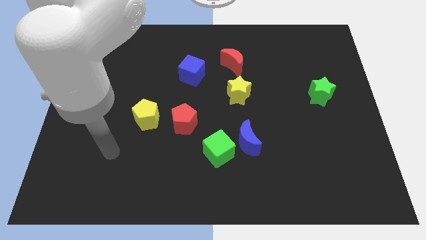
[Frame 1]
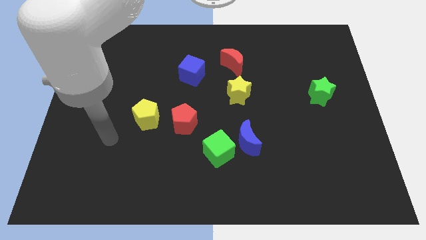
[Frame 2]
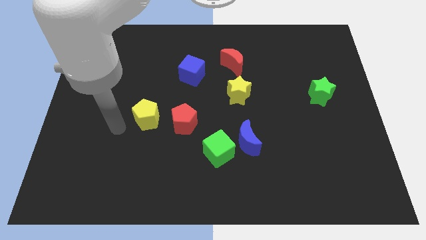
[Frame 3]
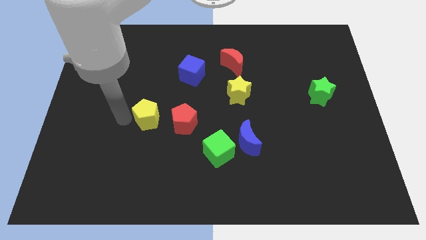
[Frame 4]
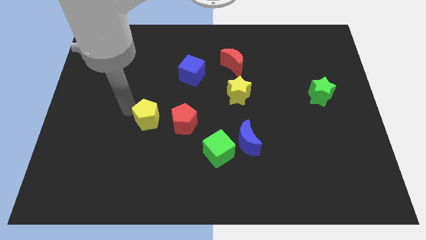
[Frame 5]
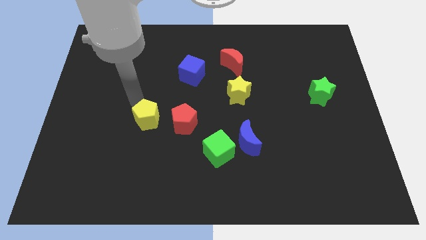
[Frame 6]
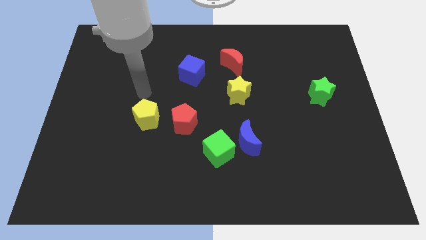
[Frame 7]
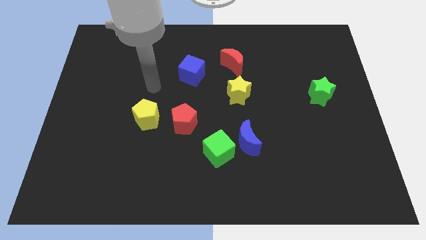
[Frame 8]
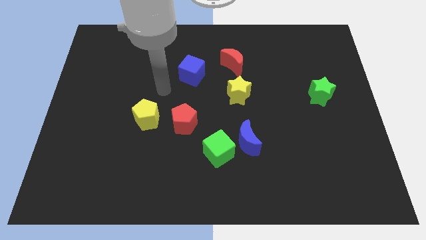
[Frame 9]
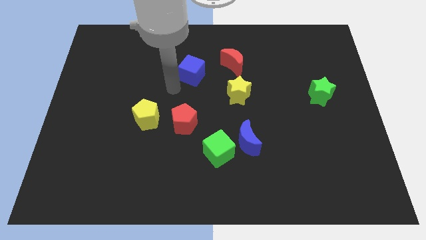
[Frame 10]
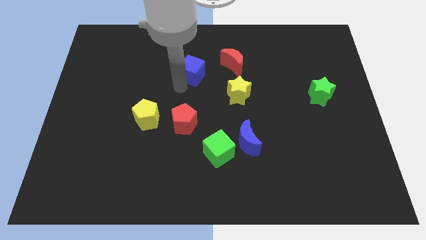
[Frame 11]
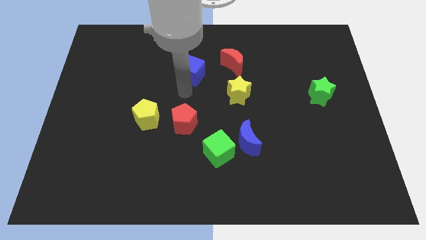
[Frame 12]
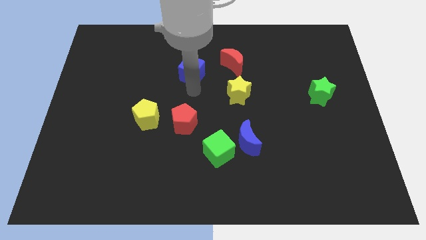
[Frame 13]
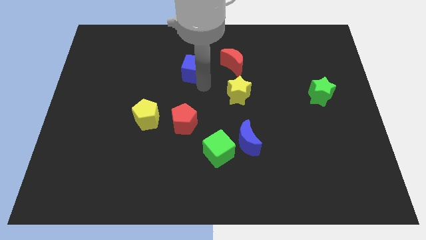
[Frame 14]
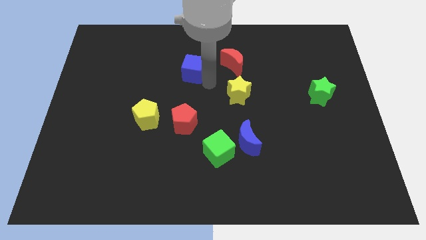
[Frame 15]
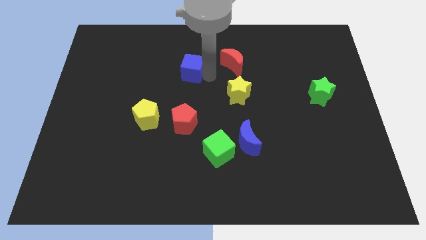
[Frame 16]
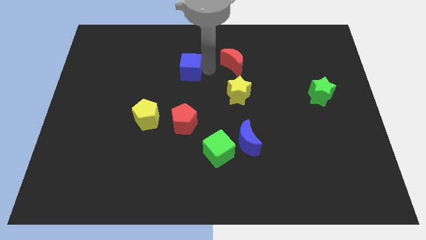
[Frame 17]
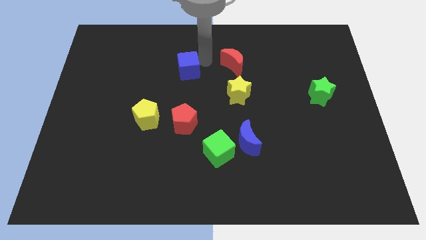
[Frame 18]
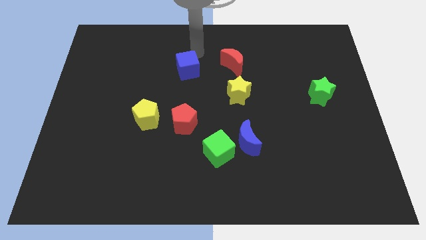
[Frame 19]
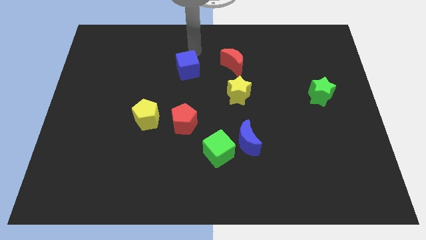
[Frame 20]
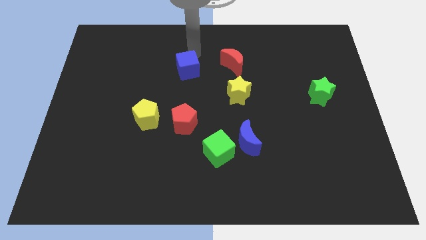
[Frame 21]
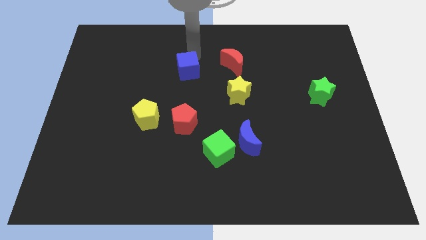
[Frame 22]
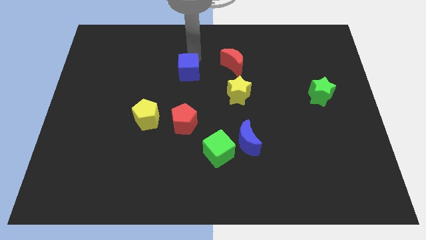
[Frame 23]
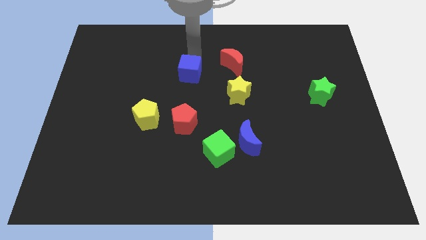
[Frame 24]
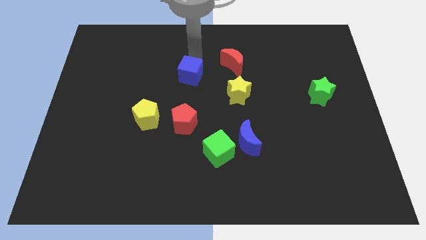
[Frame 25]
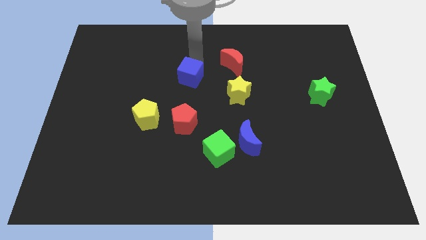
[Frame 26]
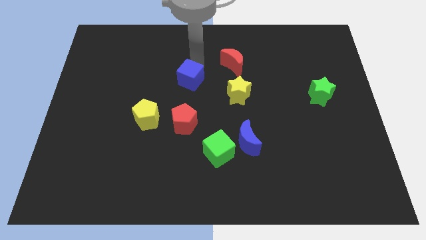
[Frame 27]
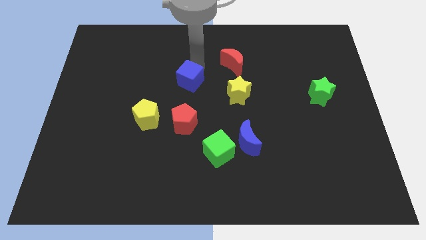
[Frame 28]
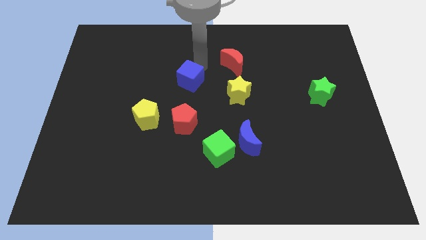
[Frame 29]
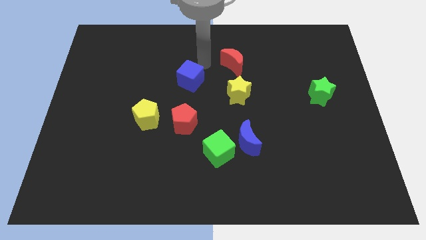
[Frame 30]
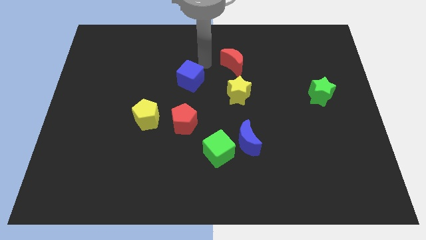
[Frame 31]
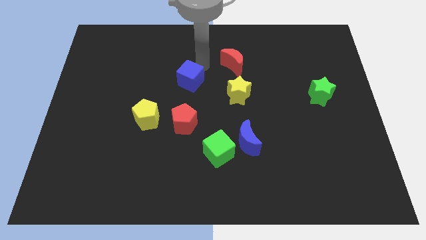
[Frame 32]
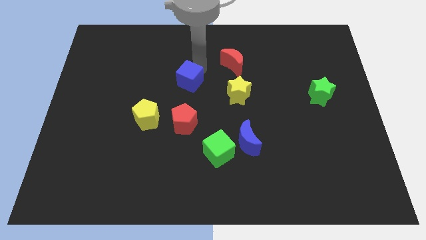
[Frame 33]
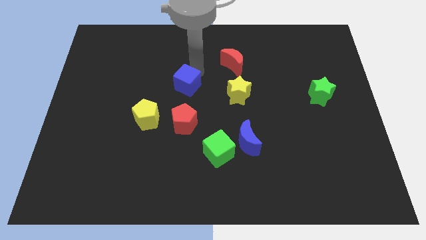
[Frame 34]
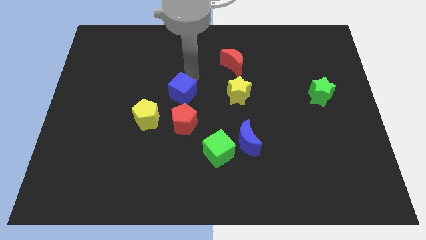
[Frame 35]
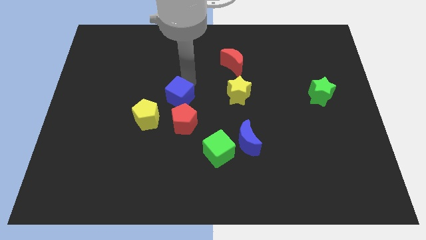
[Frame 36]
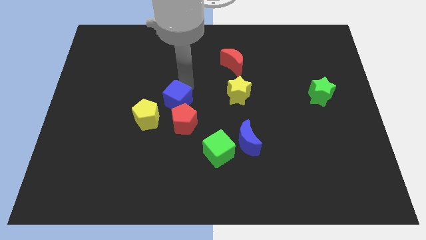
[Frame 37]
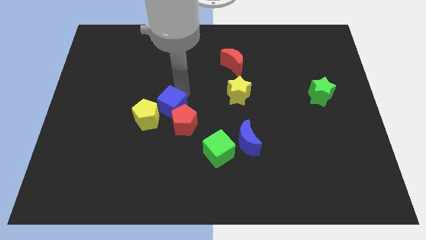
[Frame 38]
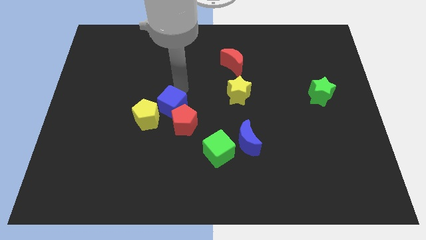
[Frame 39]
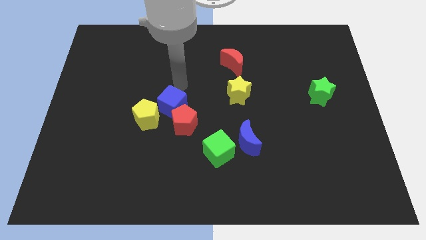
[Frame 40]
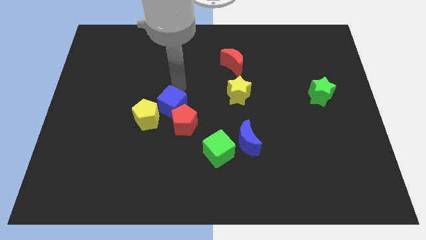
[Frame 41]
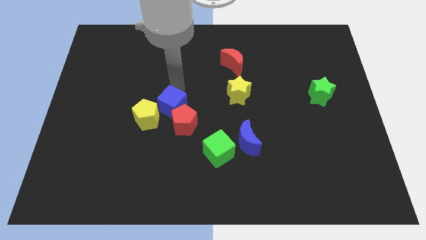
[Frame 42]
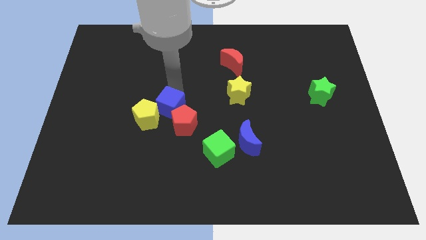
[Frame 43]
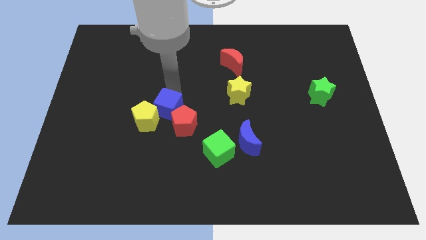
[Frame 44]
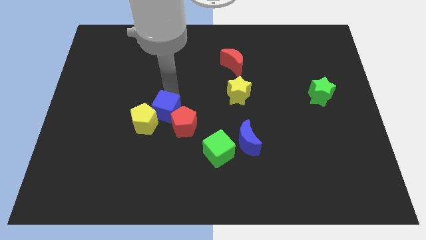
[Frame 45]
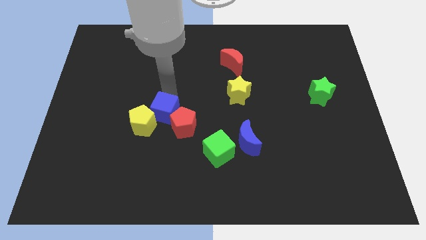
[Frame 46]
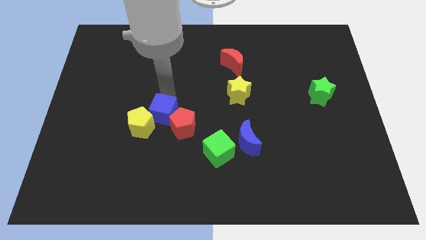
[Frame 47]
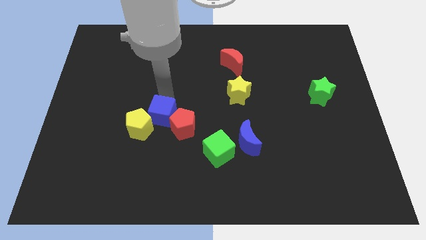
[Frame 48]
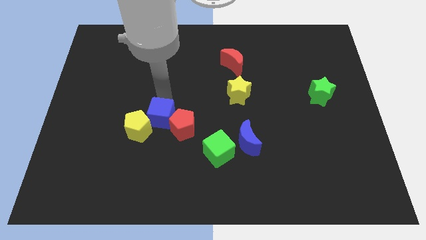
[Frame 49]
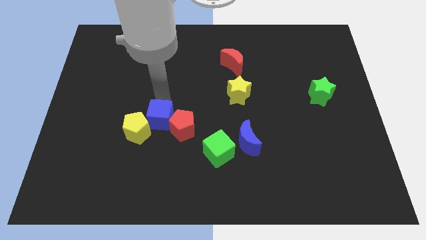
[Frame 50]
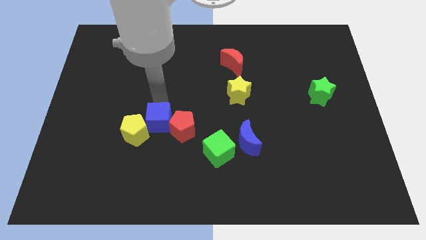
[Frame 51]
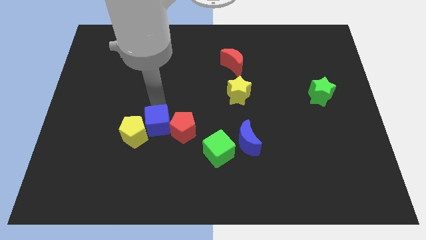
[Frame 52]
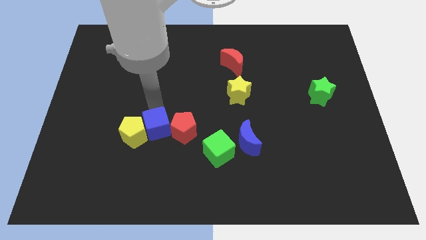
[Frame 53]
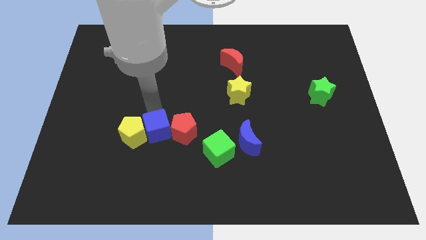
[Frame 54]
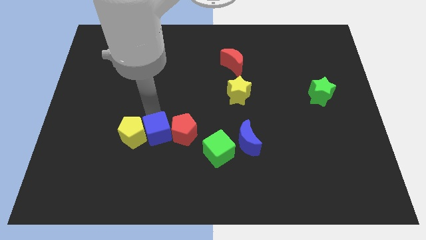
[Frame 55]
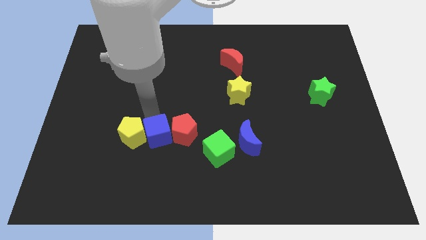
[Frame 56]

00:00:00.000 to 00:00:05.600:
put the blue cube to the left side of the green cube

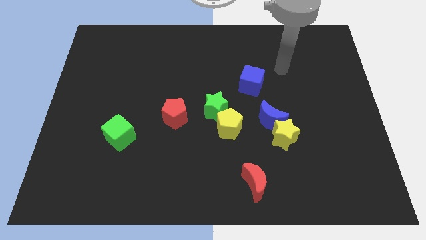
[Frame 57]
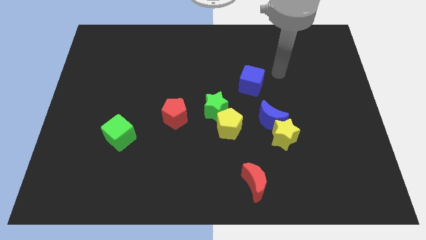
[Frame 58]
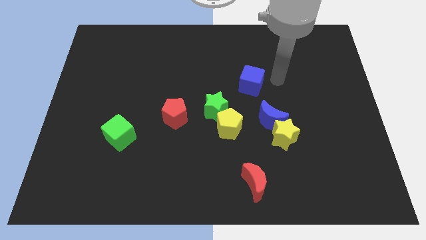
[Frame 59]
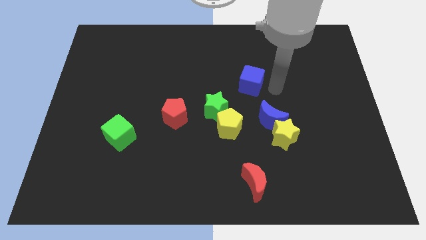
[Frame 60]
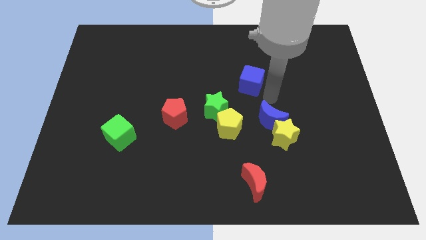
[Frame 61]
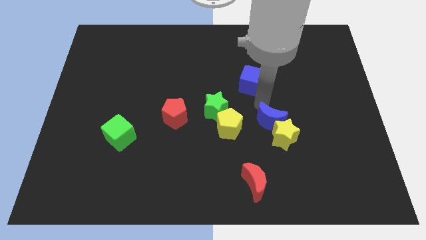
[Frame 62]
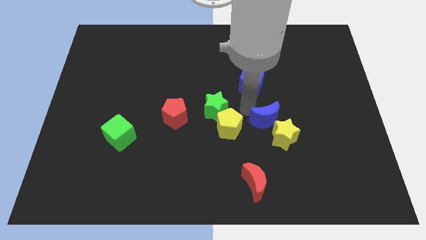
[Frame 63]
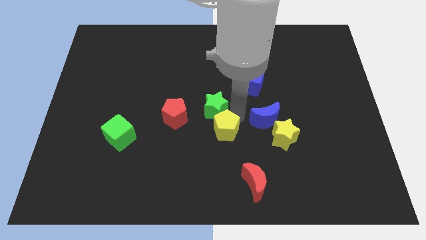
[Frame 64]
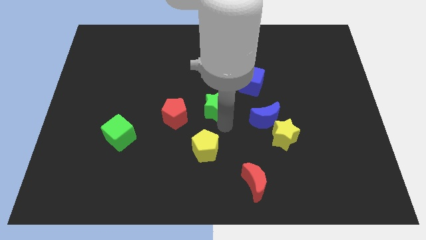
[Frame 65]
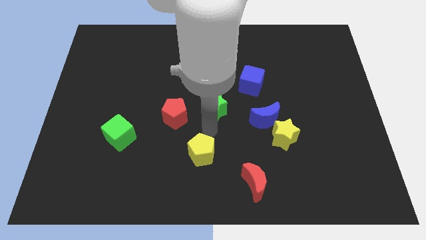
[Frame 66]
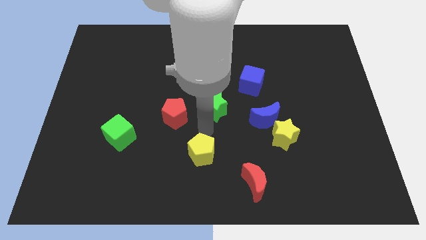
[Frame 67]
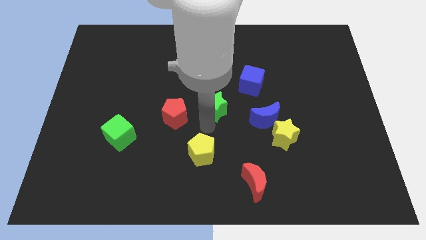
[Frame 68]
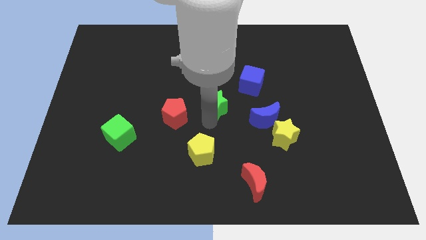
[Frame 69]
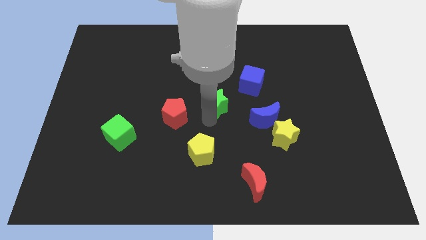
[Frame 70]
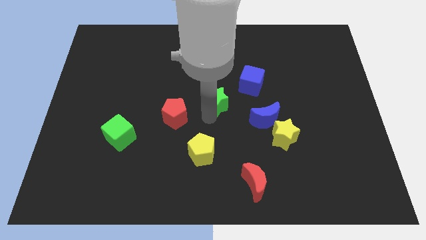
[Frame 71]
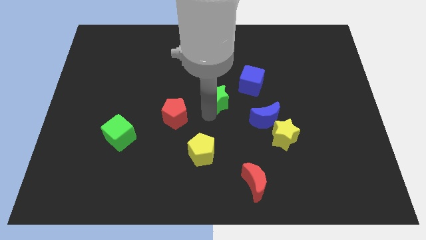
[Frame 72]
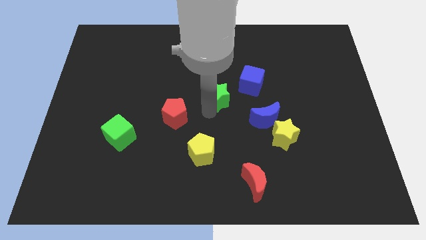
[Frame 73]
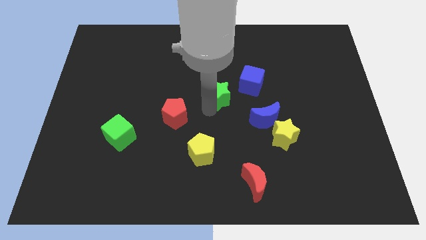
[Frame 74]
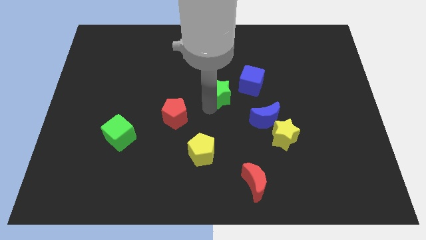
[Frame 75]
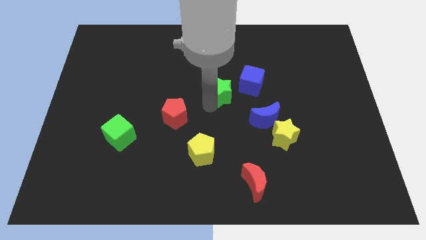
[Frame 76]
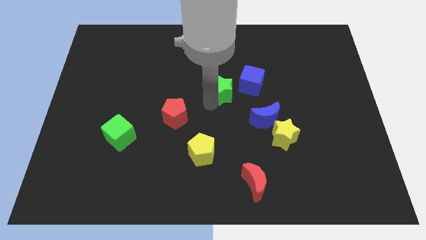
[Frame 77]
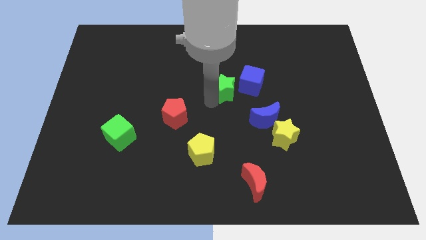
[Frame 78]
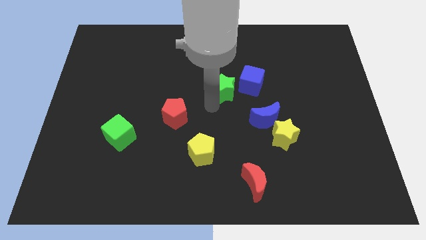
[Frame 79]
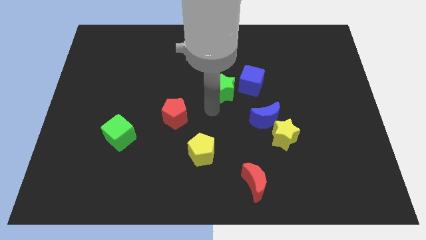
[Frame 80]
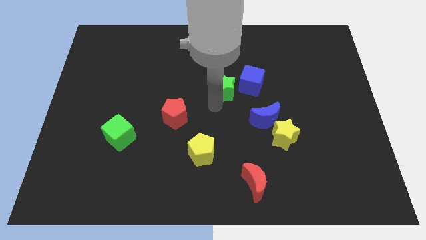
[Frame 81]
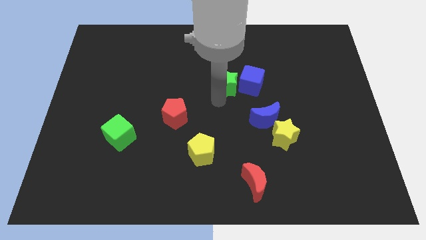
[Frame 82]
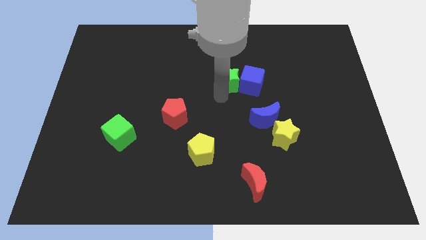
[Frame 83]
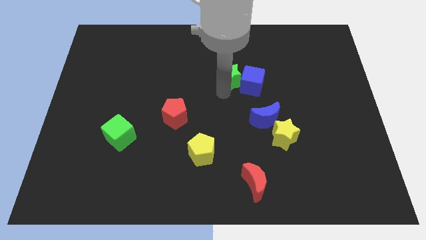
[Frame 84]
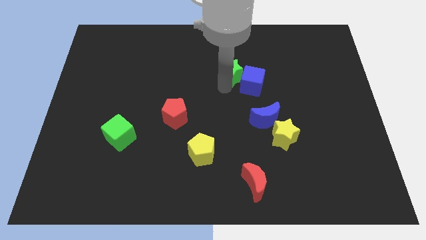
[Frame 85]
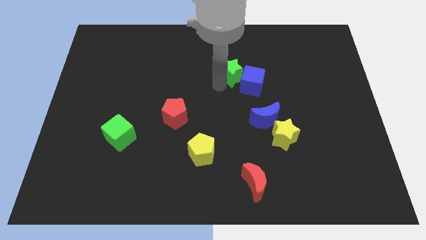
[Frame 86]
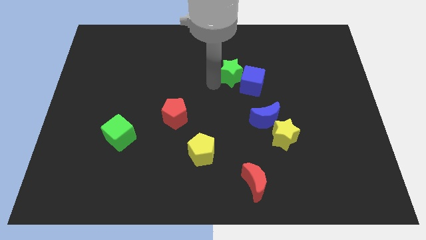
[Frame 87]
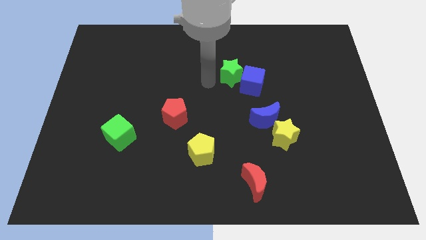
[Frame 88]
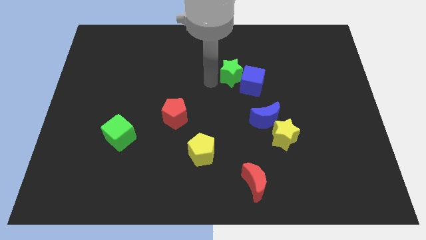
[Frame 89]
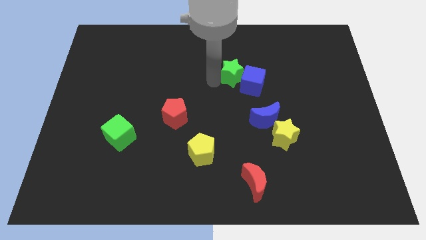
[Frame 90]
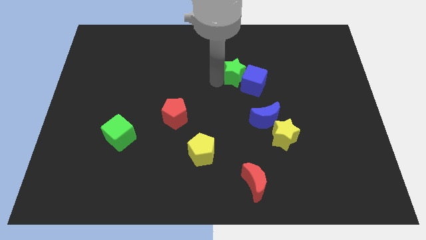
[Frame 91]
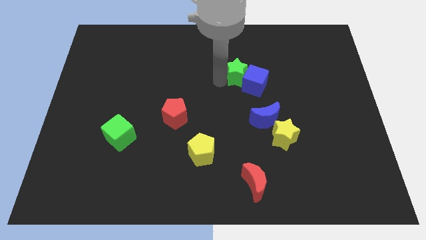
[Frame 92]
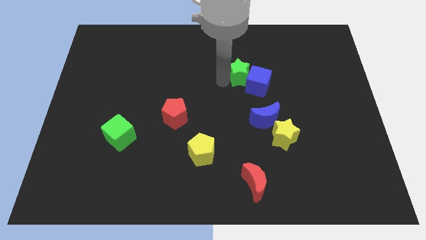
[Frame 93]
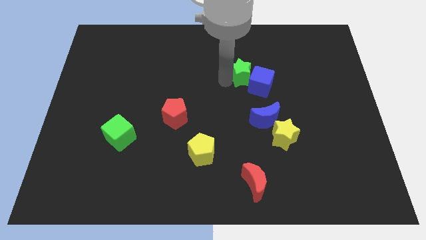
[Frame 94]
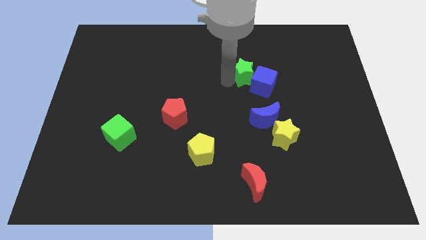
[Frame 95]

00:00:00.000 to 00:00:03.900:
slide the green star above the blue moon
